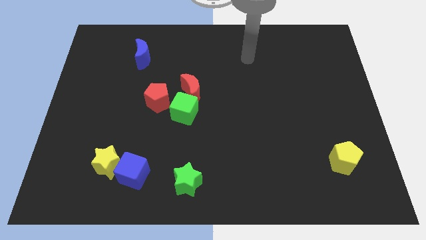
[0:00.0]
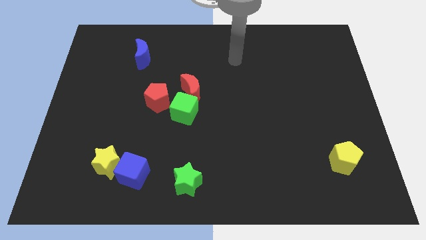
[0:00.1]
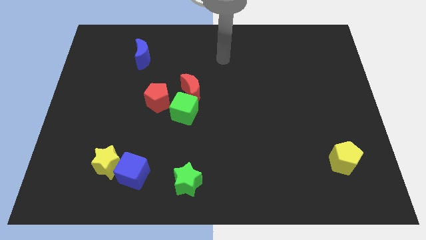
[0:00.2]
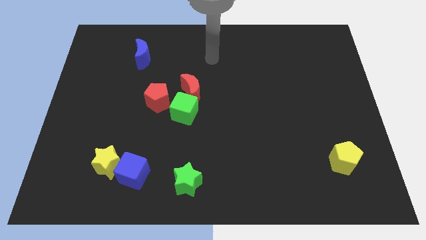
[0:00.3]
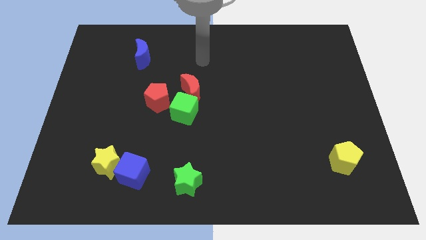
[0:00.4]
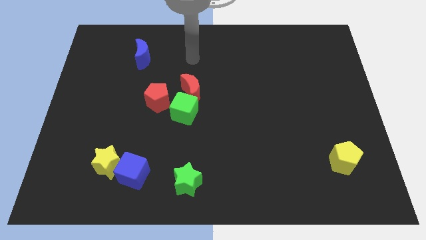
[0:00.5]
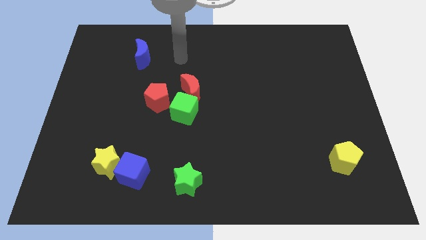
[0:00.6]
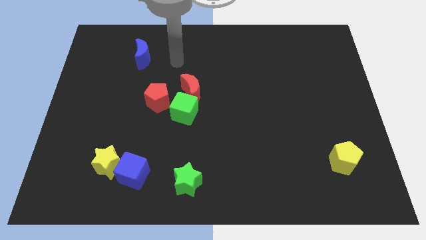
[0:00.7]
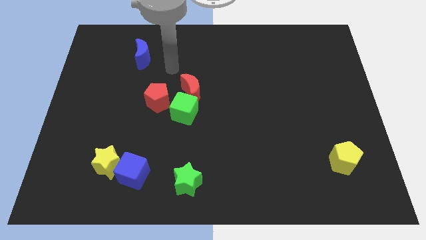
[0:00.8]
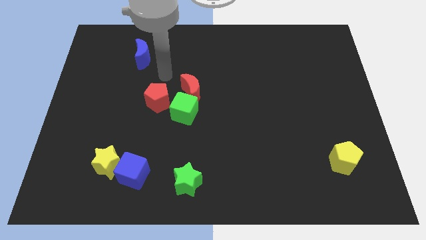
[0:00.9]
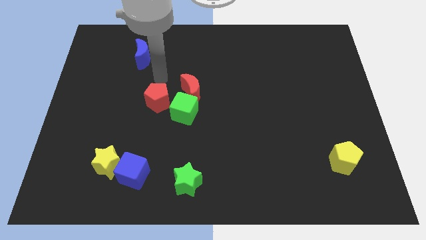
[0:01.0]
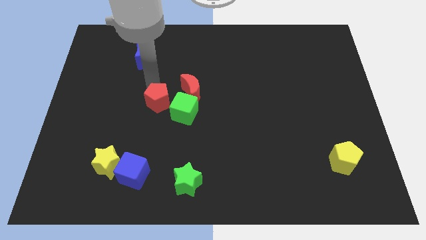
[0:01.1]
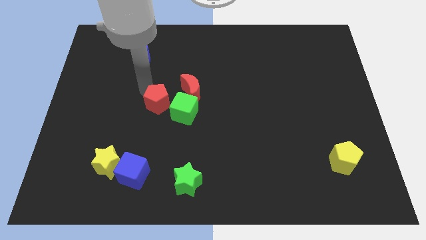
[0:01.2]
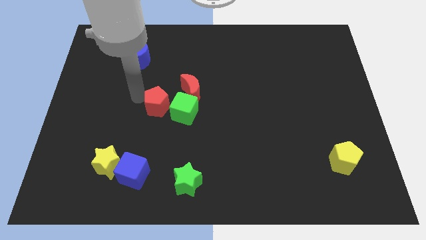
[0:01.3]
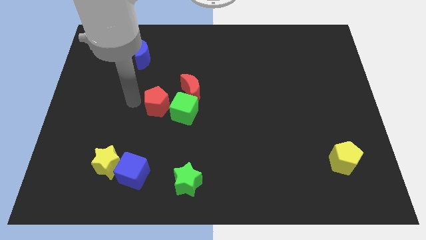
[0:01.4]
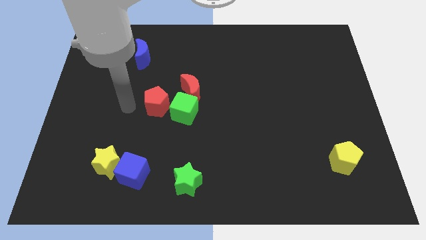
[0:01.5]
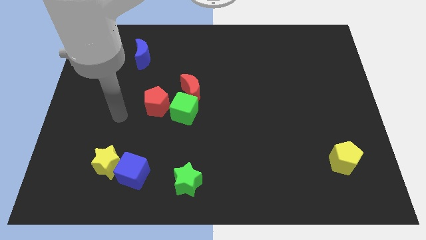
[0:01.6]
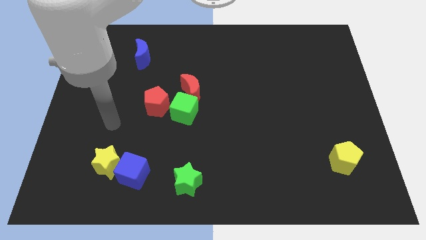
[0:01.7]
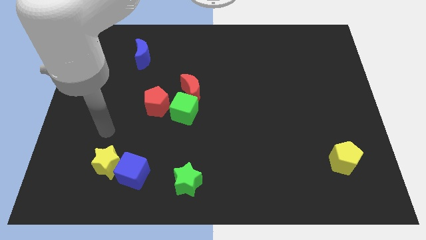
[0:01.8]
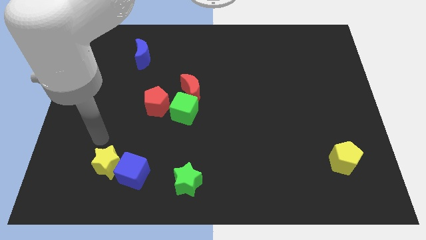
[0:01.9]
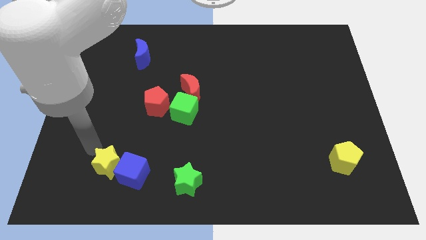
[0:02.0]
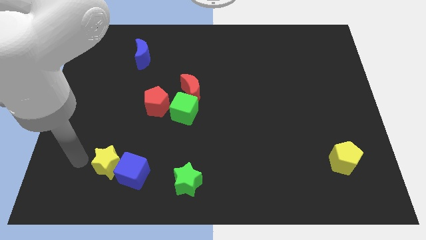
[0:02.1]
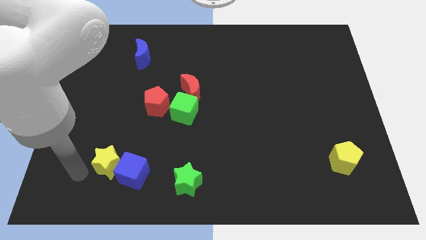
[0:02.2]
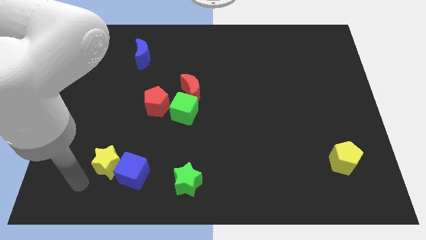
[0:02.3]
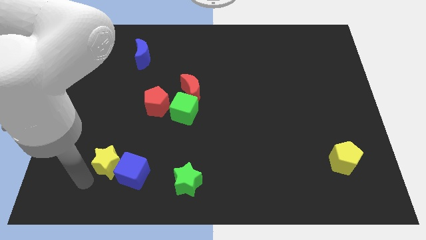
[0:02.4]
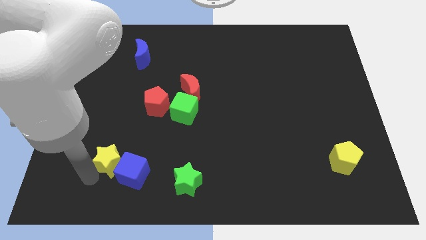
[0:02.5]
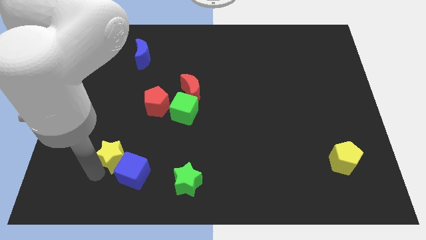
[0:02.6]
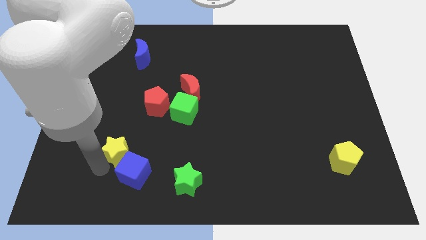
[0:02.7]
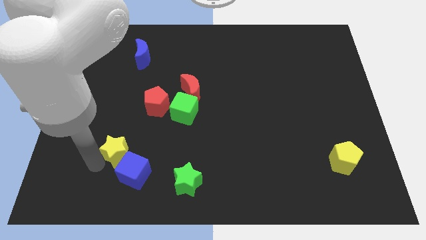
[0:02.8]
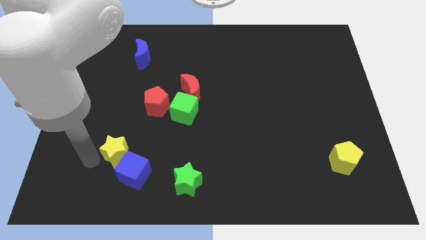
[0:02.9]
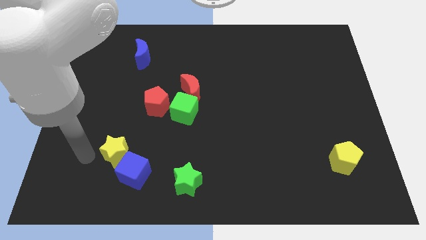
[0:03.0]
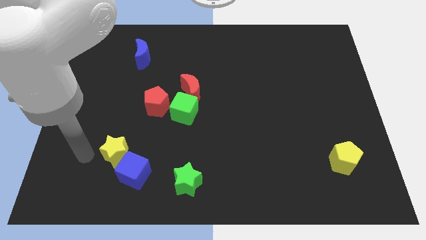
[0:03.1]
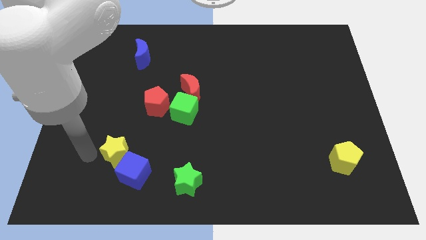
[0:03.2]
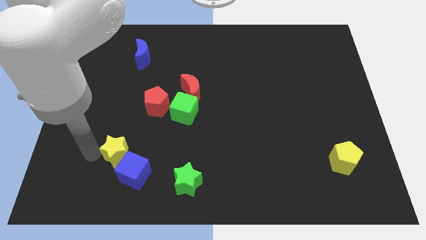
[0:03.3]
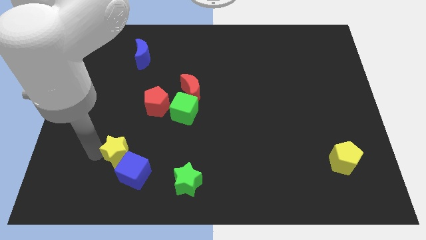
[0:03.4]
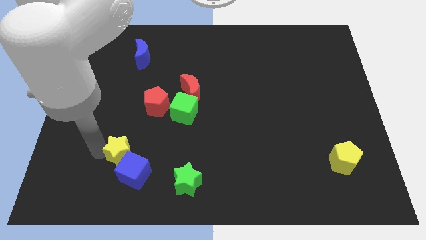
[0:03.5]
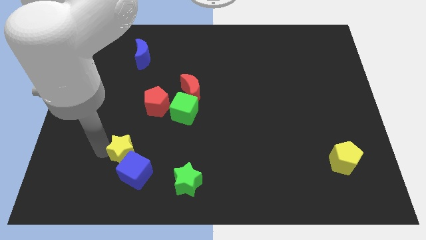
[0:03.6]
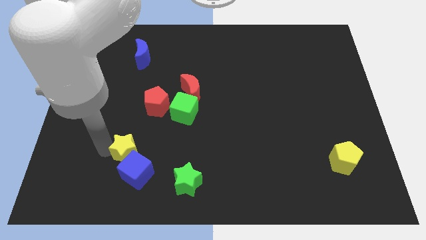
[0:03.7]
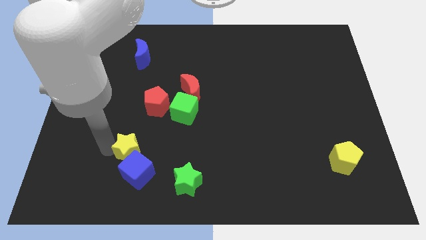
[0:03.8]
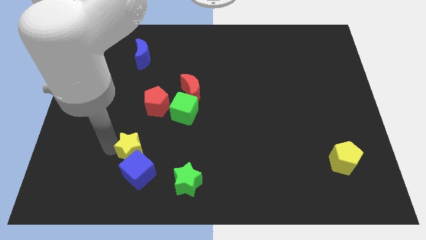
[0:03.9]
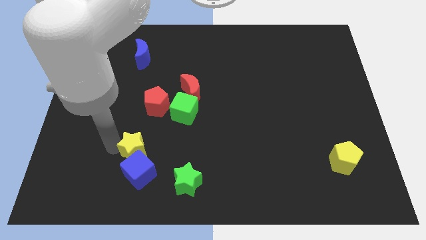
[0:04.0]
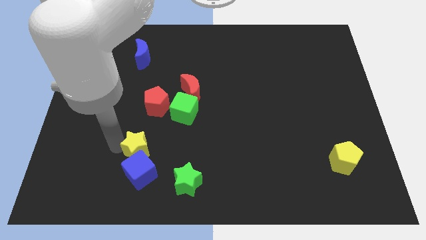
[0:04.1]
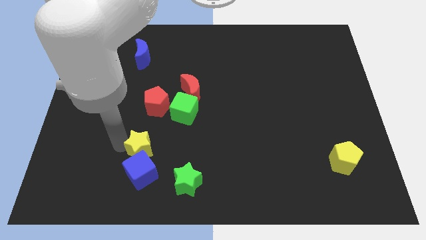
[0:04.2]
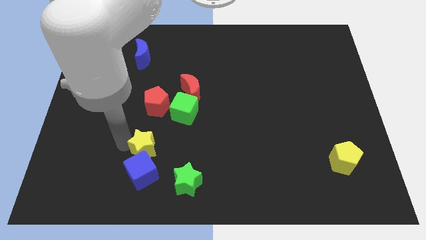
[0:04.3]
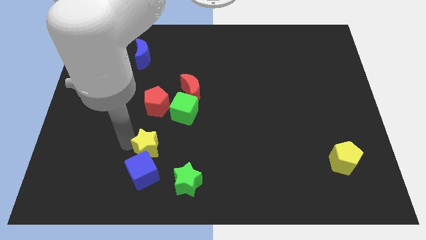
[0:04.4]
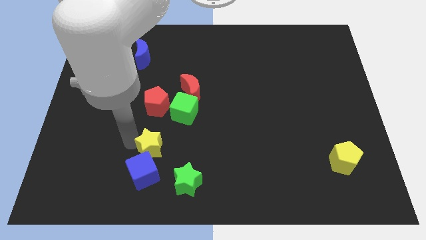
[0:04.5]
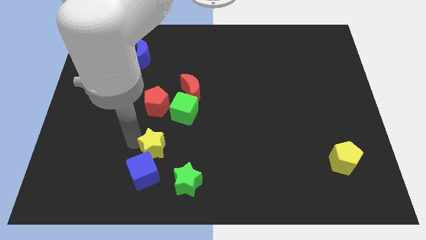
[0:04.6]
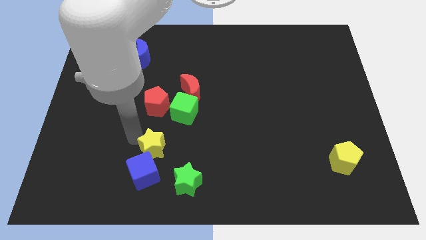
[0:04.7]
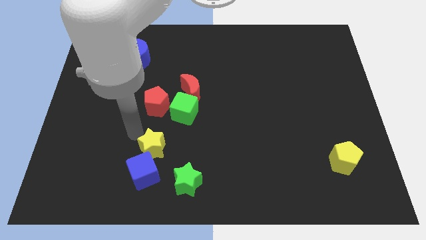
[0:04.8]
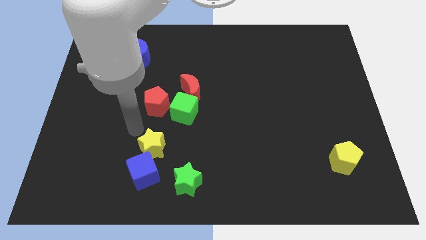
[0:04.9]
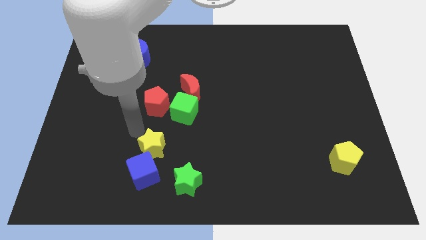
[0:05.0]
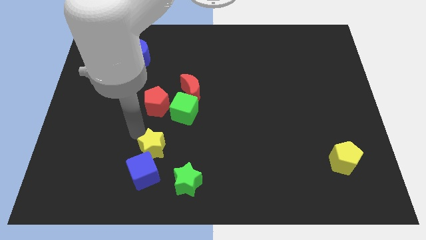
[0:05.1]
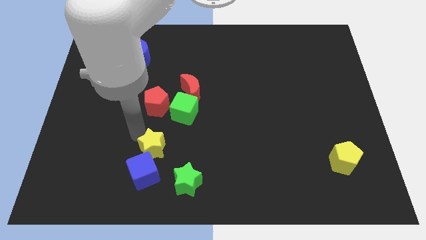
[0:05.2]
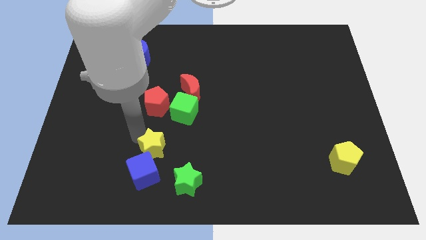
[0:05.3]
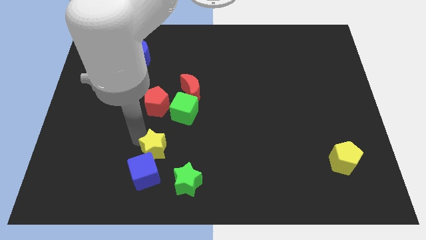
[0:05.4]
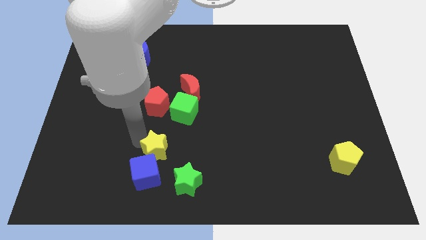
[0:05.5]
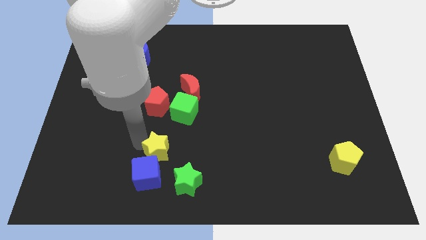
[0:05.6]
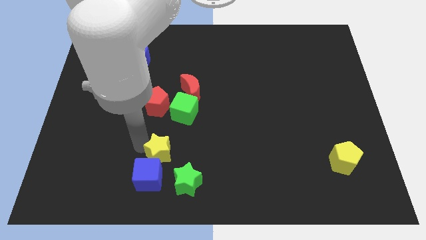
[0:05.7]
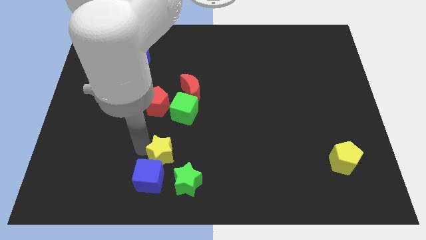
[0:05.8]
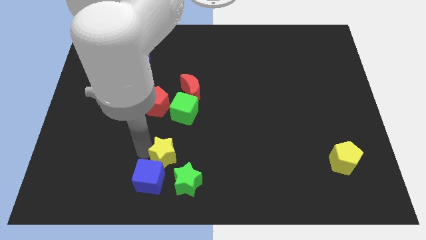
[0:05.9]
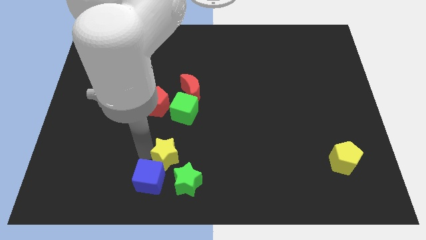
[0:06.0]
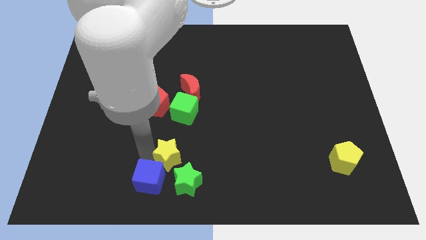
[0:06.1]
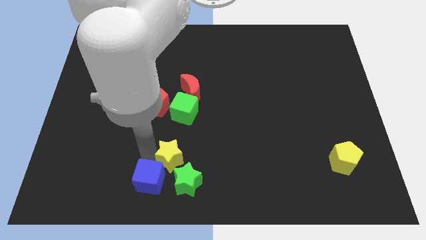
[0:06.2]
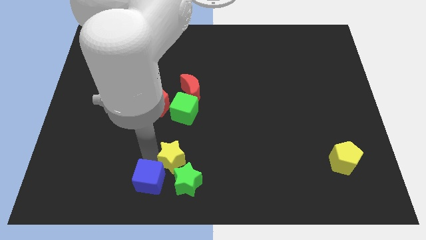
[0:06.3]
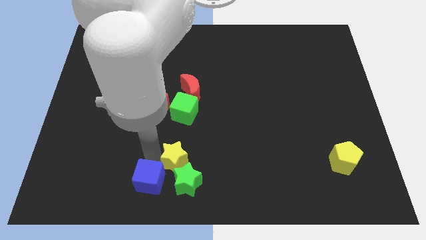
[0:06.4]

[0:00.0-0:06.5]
put the yellow star close to the green star

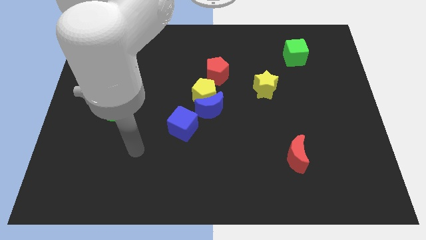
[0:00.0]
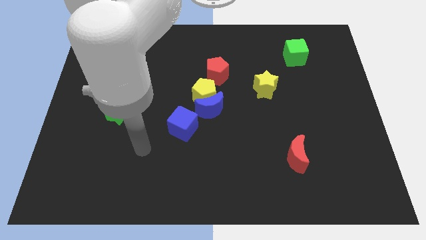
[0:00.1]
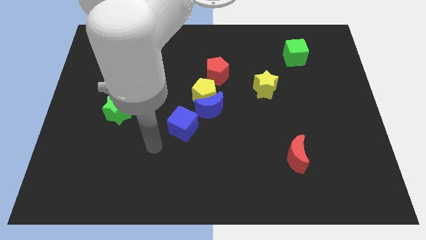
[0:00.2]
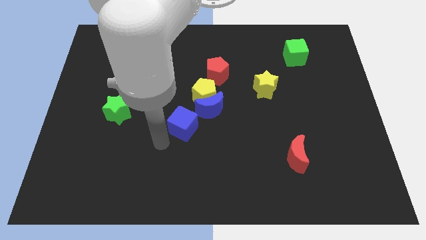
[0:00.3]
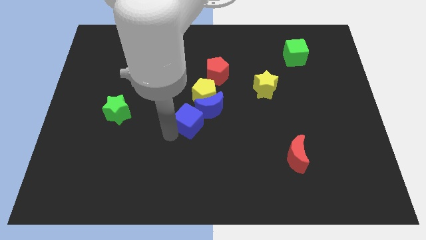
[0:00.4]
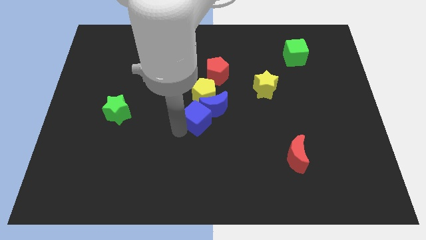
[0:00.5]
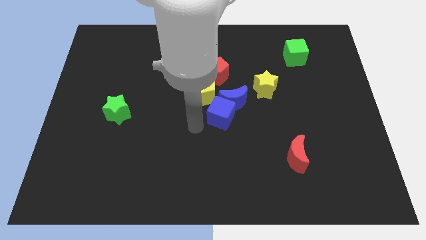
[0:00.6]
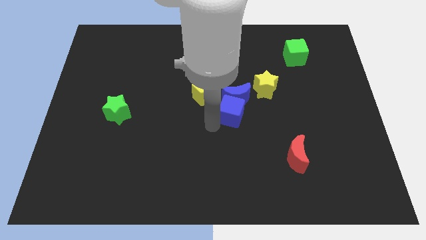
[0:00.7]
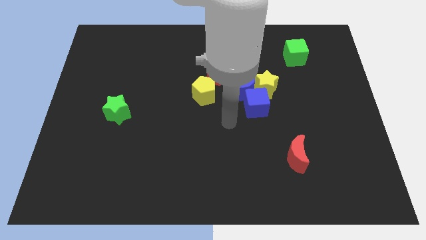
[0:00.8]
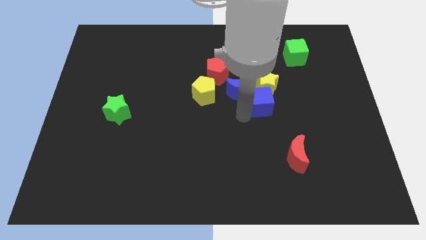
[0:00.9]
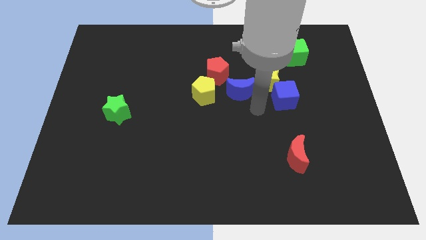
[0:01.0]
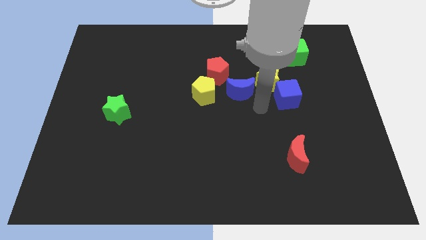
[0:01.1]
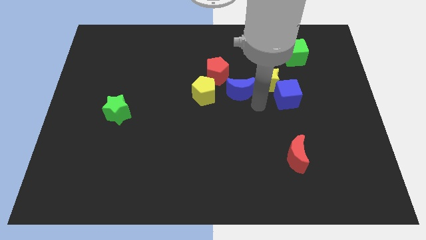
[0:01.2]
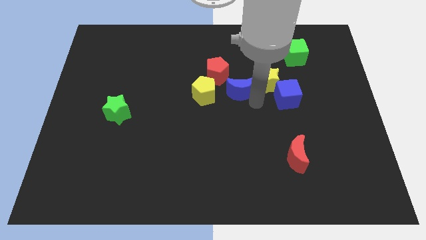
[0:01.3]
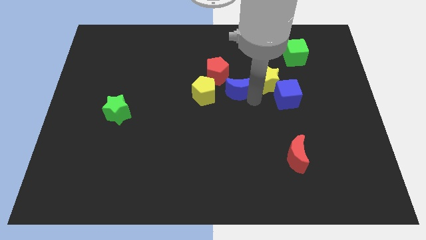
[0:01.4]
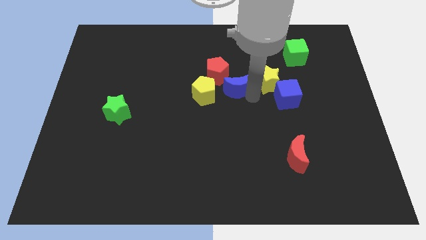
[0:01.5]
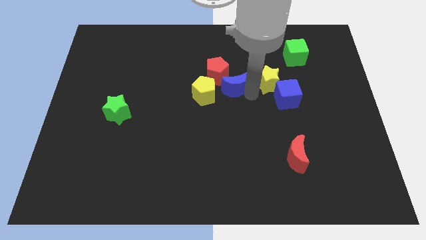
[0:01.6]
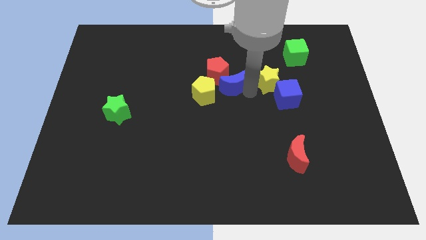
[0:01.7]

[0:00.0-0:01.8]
slide the blue moon towards the red pentagon
